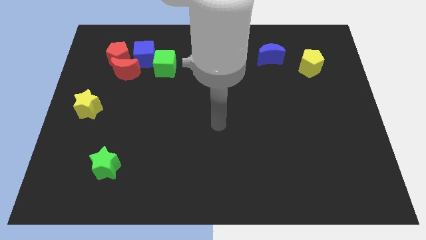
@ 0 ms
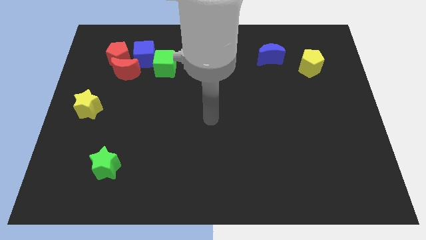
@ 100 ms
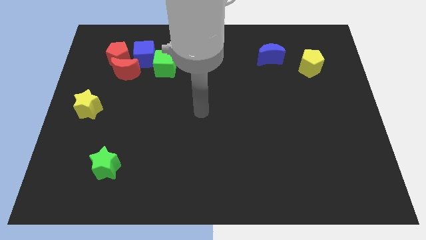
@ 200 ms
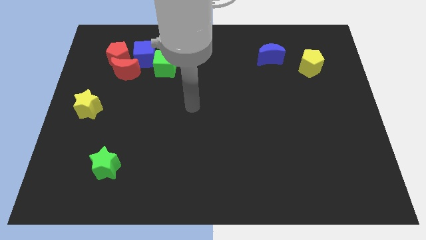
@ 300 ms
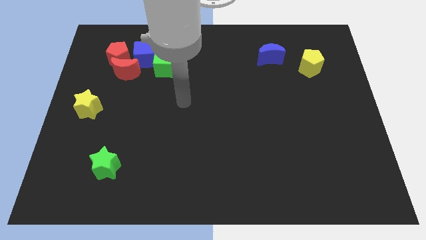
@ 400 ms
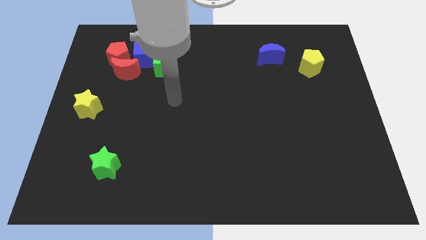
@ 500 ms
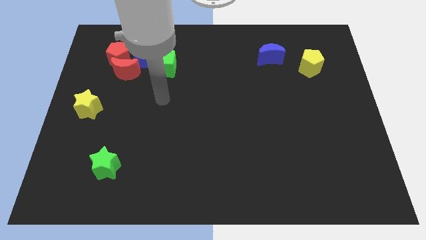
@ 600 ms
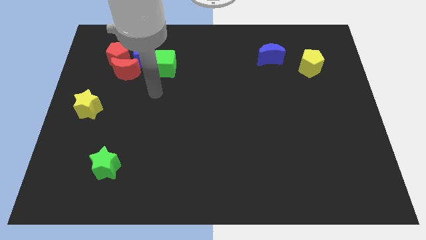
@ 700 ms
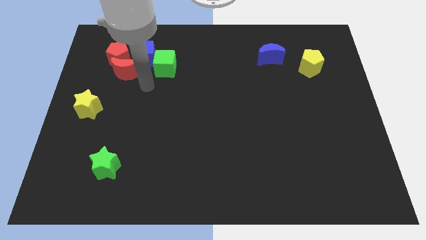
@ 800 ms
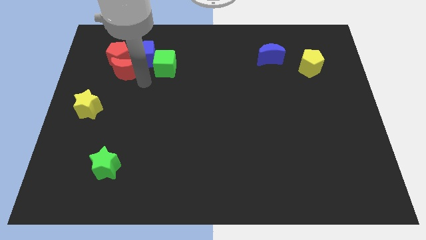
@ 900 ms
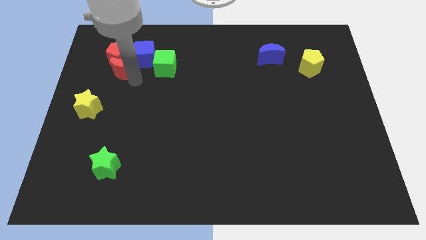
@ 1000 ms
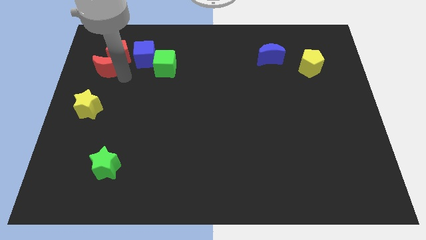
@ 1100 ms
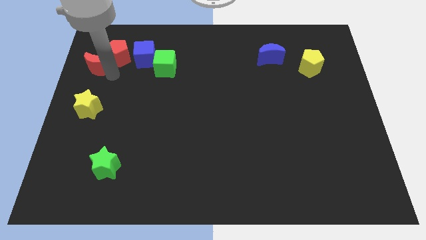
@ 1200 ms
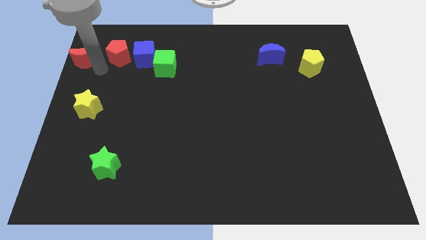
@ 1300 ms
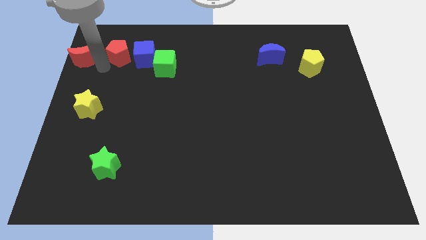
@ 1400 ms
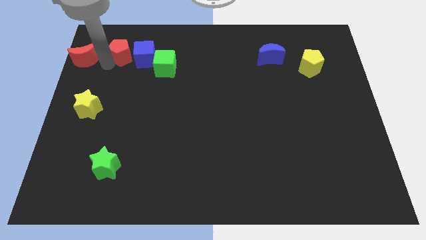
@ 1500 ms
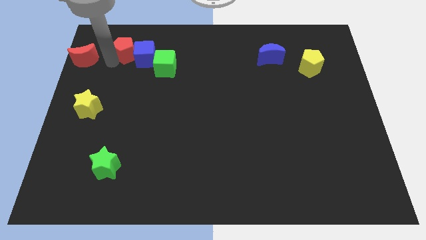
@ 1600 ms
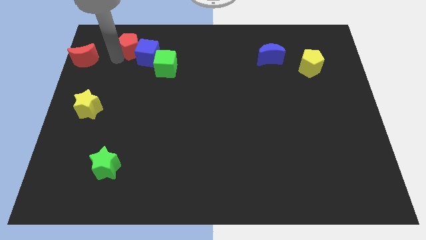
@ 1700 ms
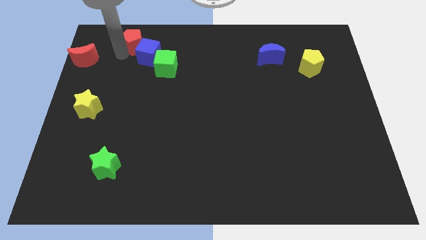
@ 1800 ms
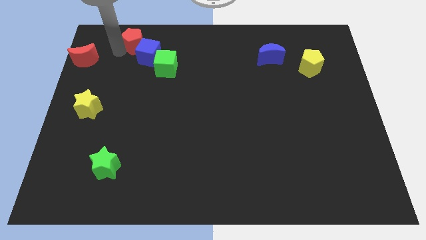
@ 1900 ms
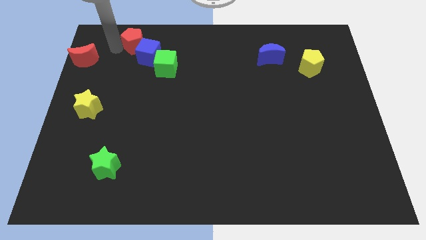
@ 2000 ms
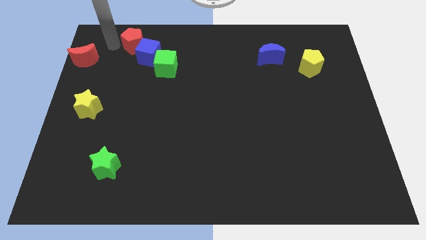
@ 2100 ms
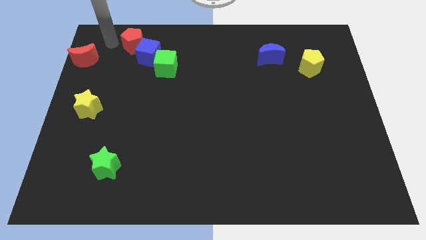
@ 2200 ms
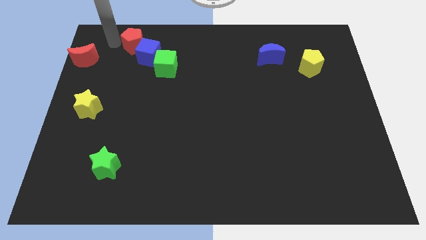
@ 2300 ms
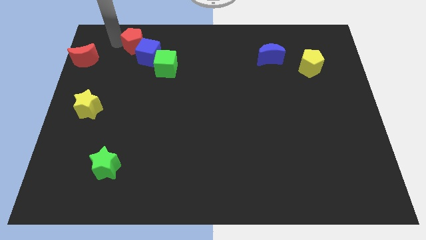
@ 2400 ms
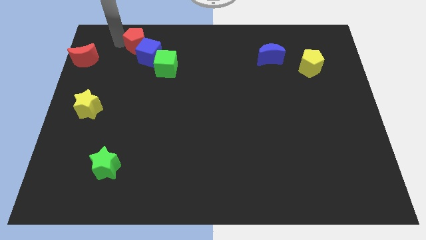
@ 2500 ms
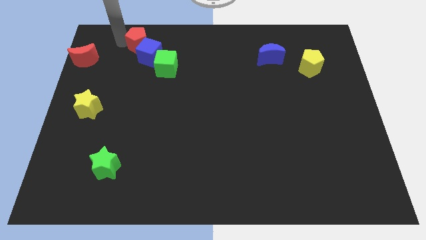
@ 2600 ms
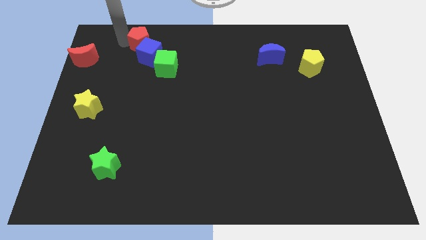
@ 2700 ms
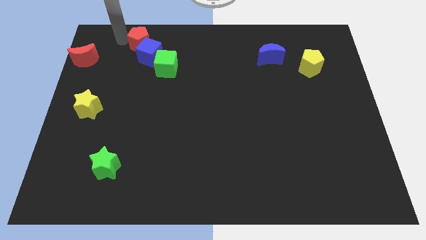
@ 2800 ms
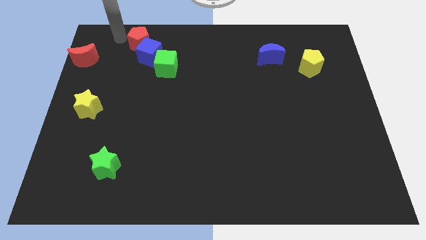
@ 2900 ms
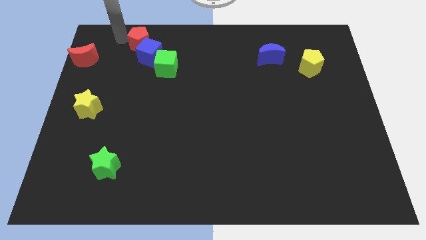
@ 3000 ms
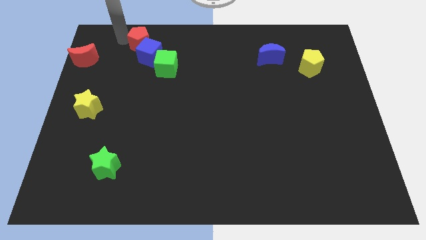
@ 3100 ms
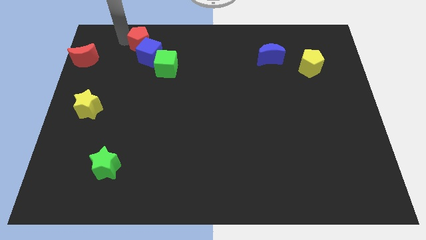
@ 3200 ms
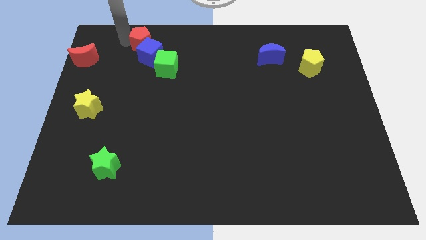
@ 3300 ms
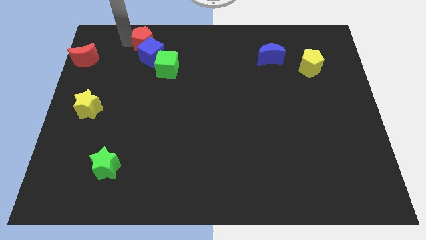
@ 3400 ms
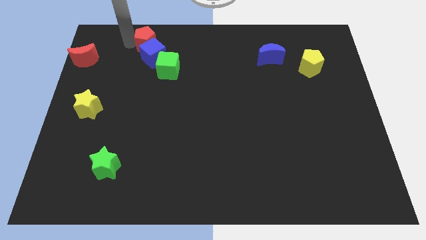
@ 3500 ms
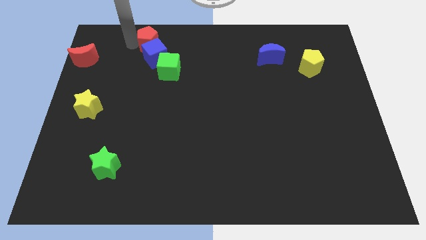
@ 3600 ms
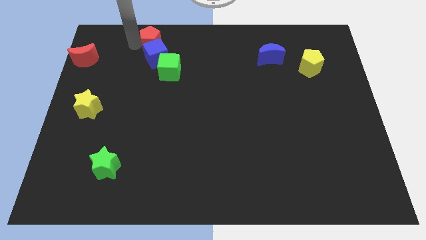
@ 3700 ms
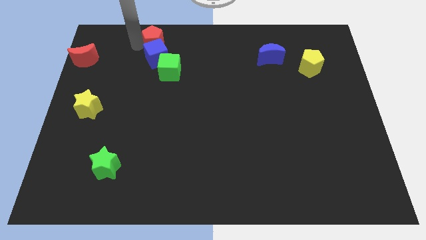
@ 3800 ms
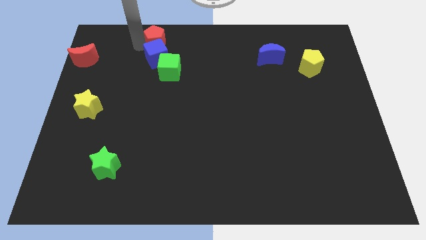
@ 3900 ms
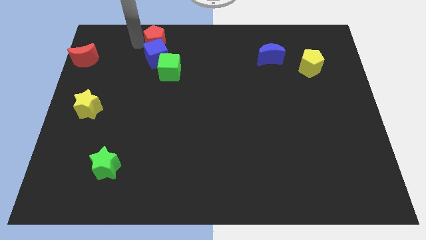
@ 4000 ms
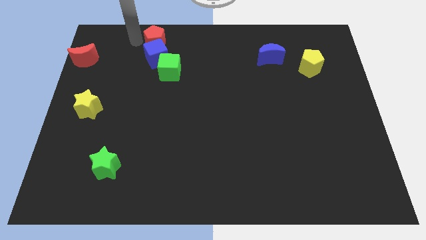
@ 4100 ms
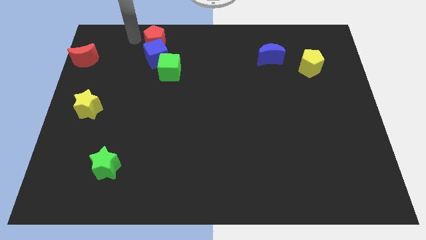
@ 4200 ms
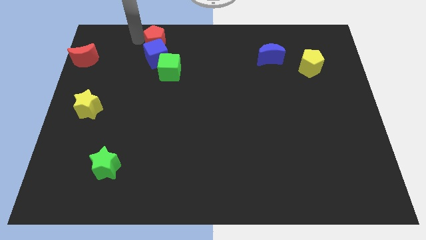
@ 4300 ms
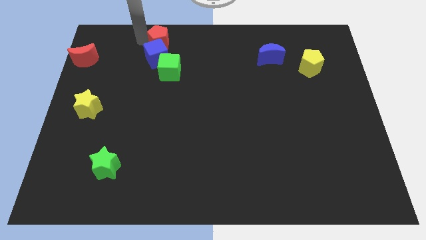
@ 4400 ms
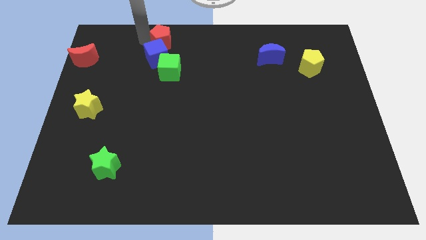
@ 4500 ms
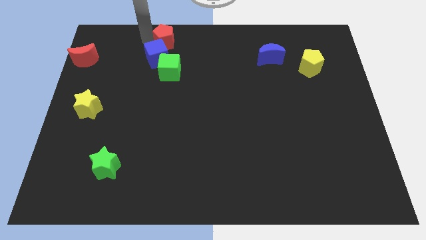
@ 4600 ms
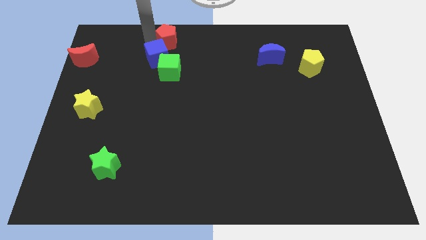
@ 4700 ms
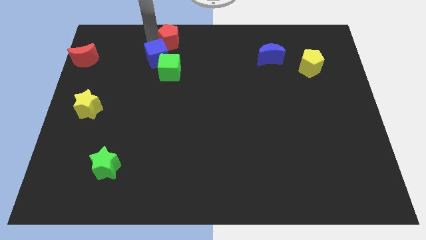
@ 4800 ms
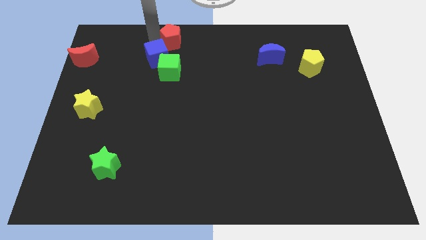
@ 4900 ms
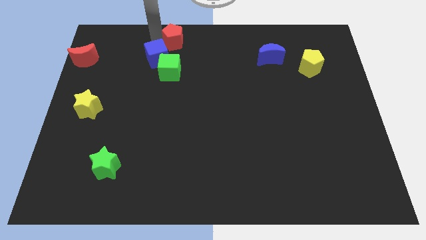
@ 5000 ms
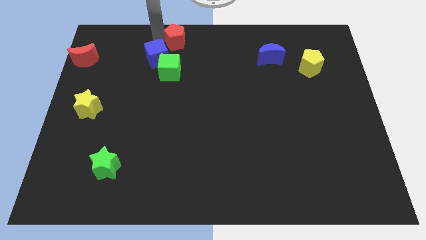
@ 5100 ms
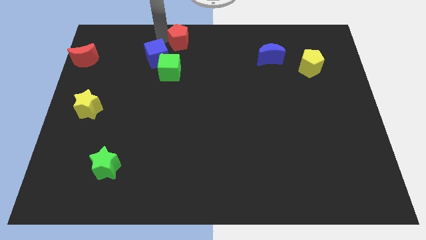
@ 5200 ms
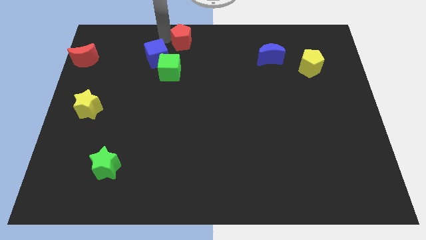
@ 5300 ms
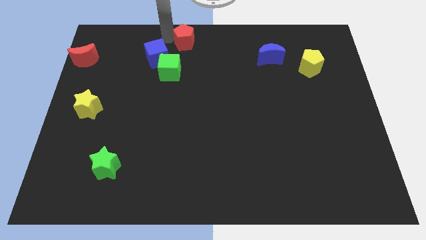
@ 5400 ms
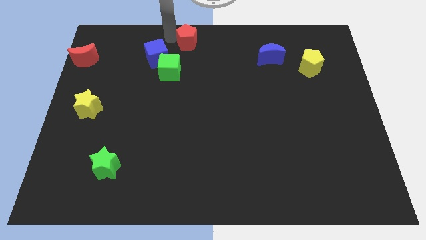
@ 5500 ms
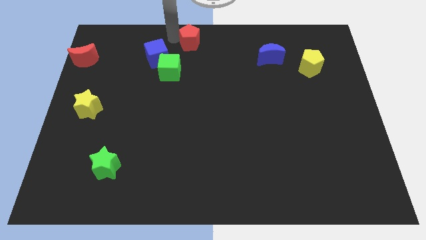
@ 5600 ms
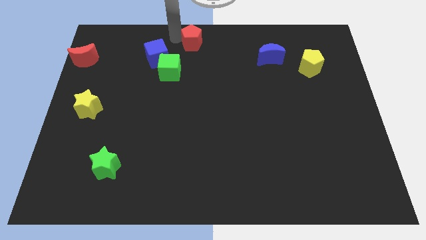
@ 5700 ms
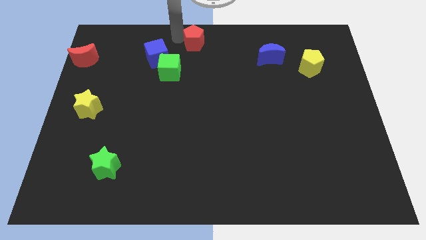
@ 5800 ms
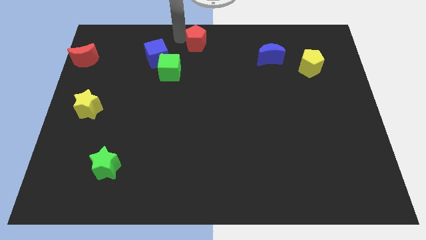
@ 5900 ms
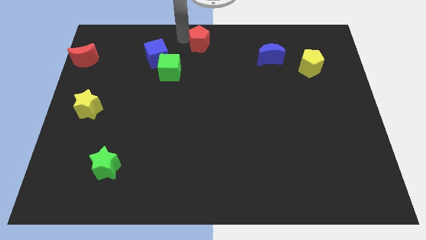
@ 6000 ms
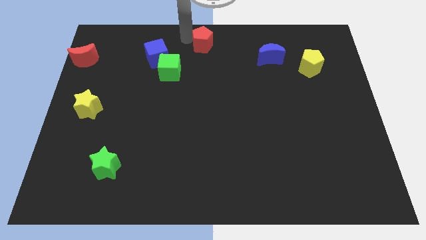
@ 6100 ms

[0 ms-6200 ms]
move the red pentagon right

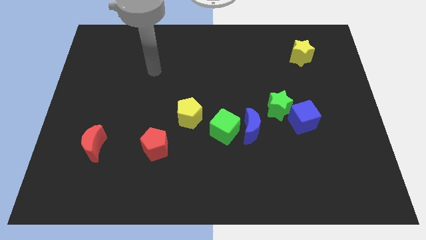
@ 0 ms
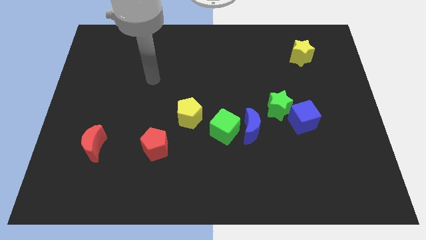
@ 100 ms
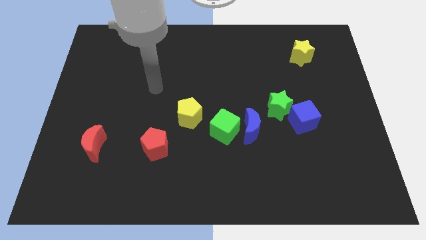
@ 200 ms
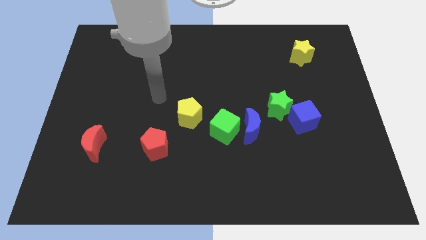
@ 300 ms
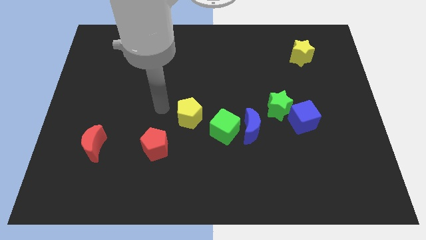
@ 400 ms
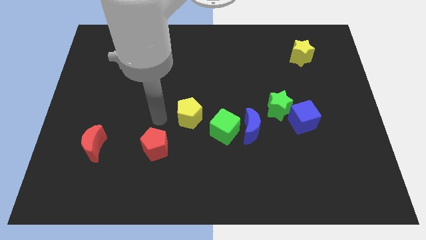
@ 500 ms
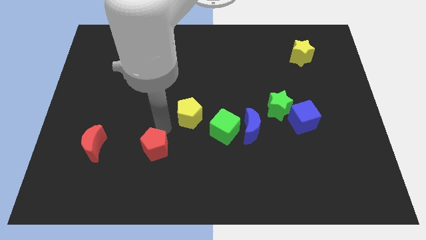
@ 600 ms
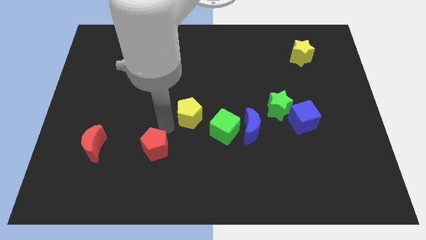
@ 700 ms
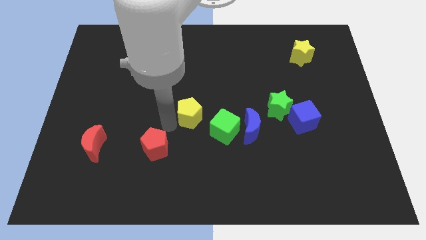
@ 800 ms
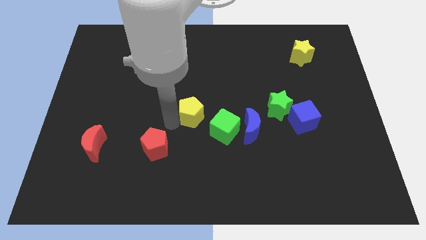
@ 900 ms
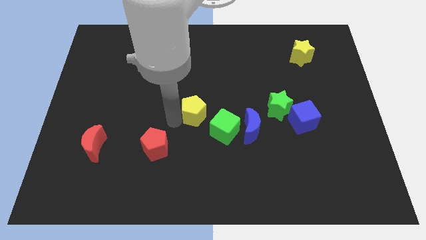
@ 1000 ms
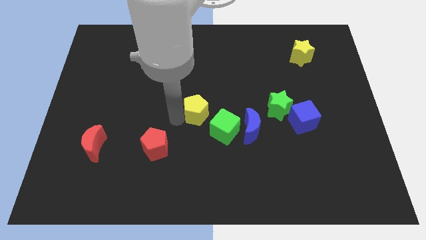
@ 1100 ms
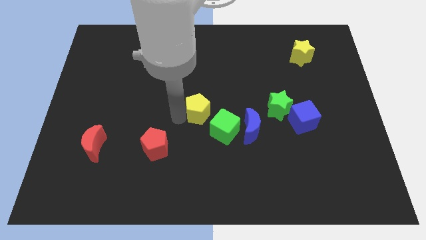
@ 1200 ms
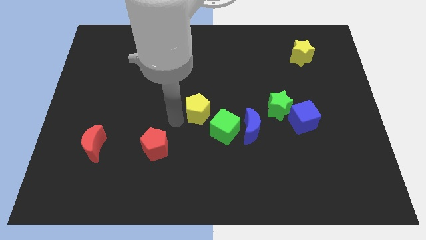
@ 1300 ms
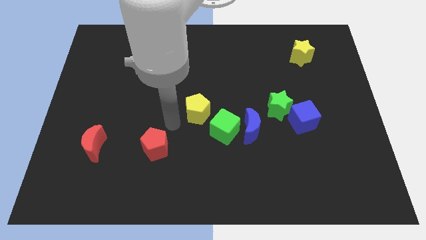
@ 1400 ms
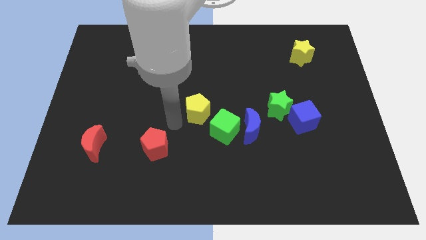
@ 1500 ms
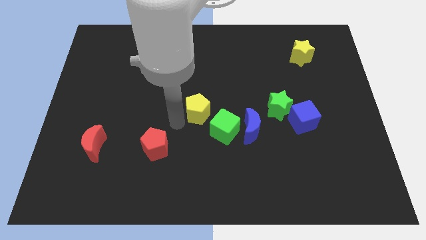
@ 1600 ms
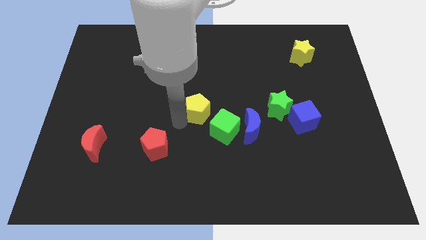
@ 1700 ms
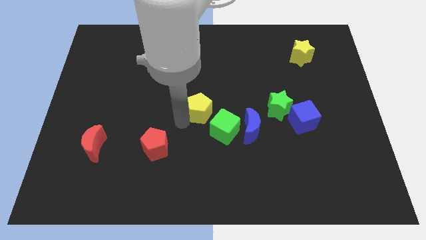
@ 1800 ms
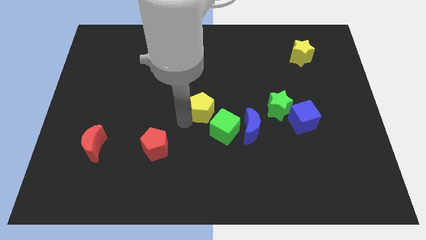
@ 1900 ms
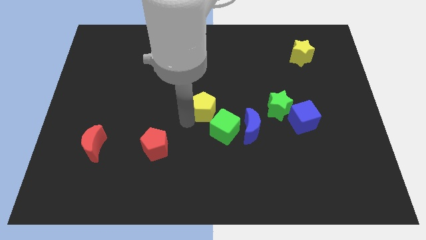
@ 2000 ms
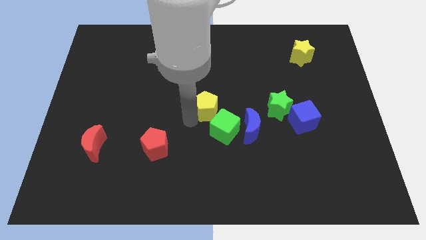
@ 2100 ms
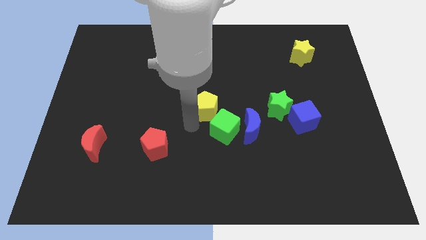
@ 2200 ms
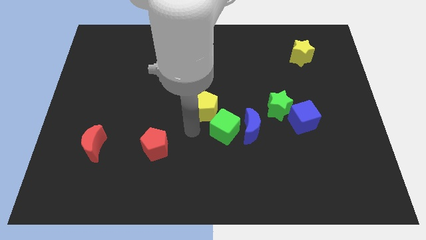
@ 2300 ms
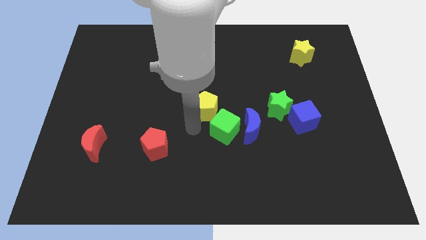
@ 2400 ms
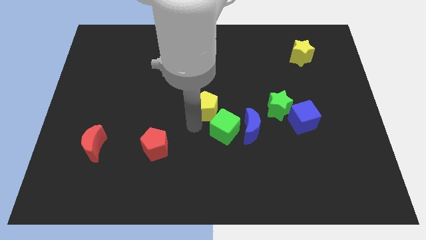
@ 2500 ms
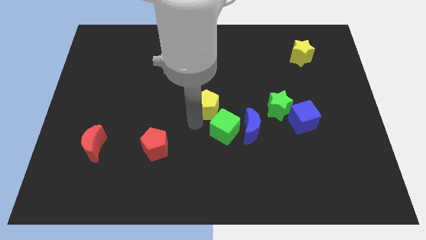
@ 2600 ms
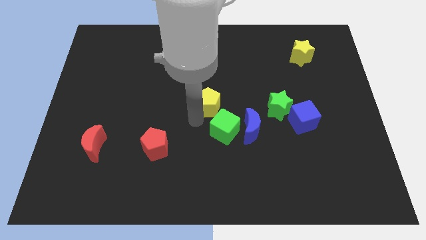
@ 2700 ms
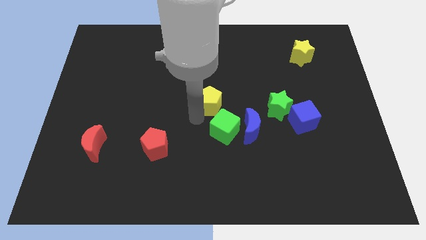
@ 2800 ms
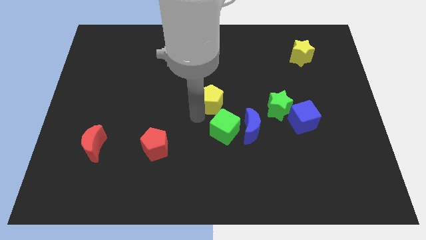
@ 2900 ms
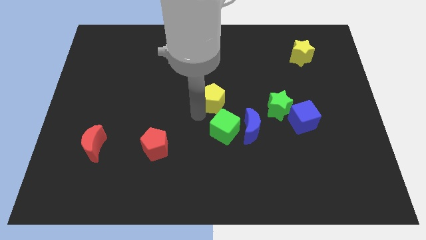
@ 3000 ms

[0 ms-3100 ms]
move the yellow pentagon a little diagonally up and to the right
